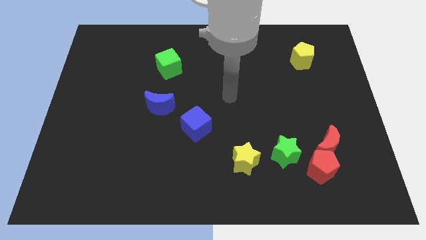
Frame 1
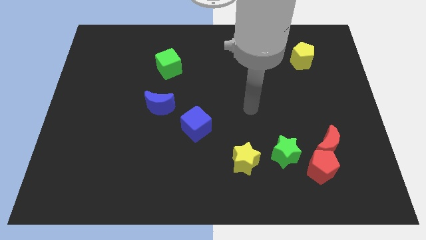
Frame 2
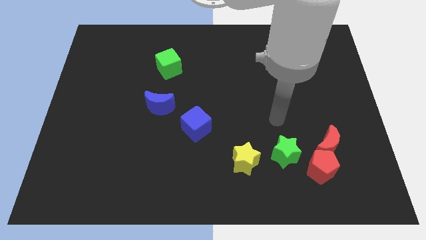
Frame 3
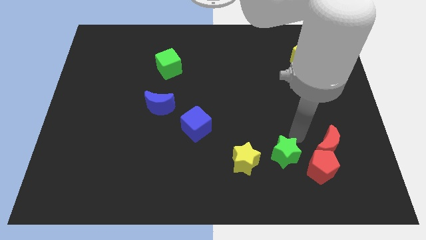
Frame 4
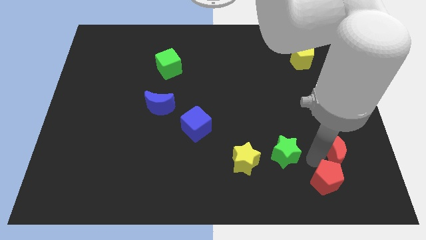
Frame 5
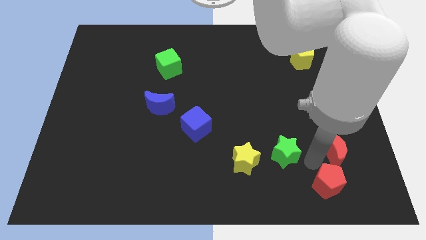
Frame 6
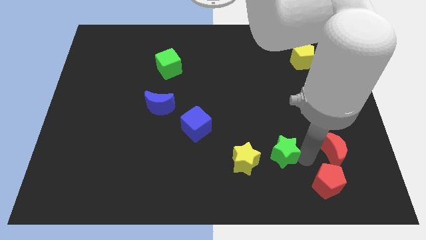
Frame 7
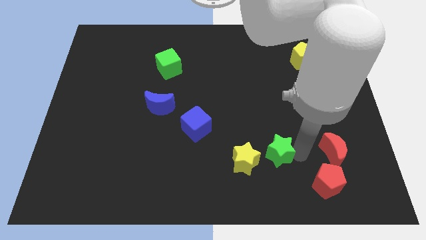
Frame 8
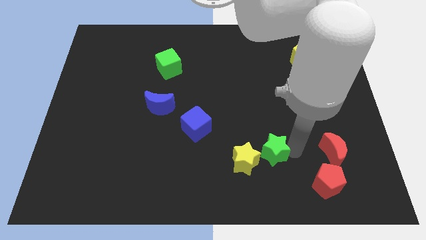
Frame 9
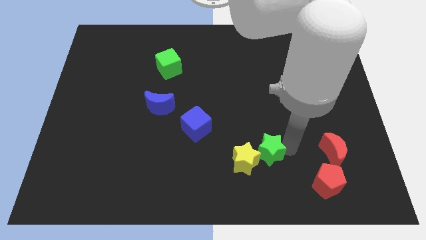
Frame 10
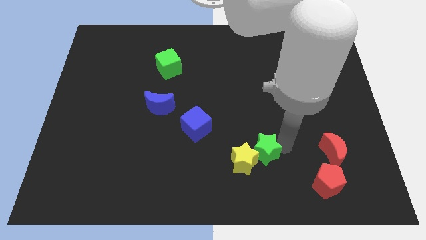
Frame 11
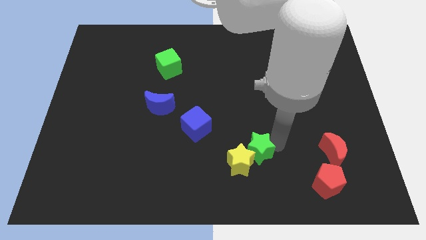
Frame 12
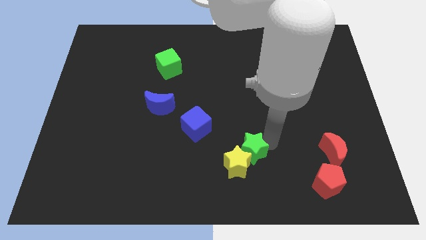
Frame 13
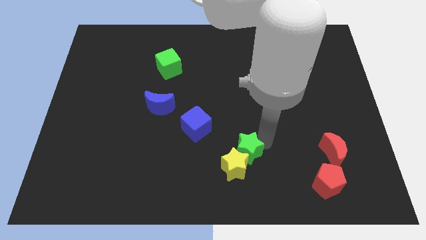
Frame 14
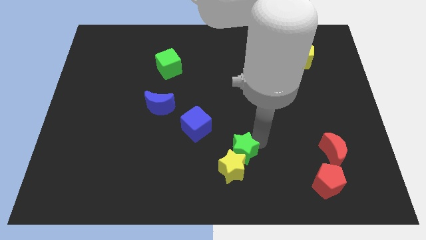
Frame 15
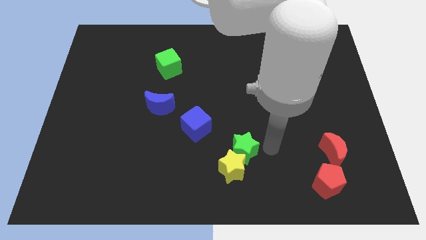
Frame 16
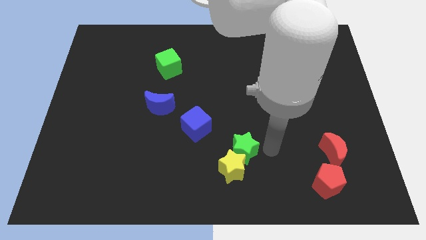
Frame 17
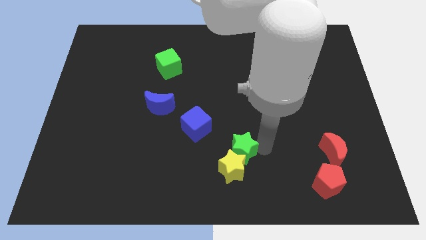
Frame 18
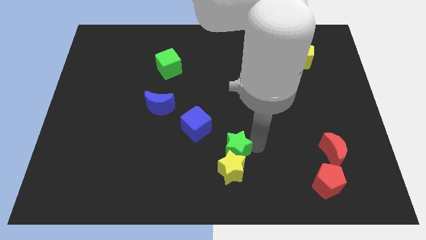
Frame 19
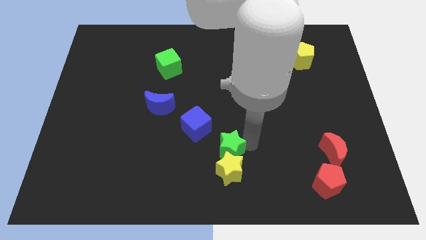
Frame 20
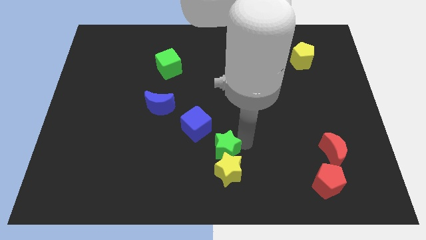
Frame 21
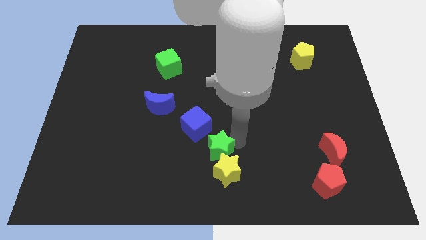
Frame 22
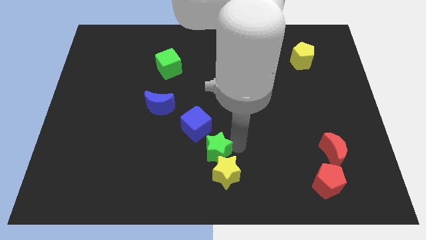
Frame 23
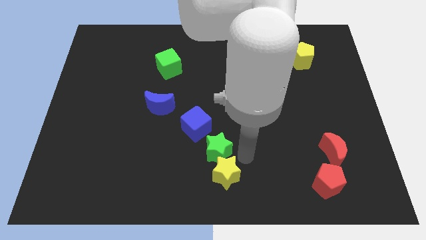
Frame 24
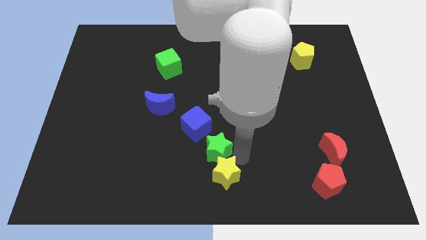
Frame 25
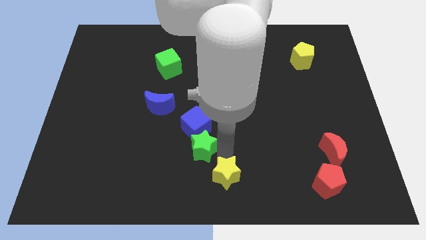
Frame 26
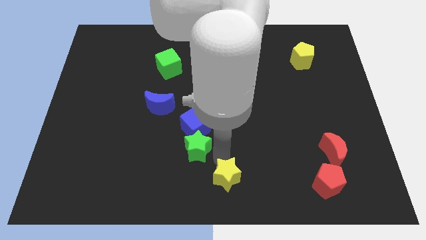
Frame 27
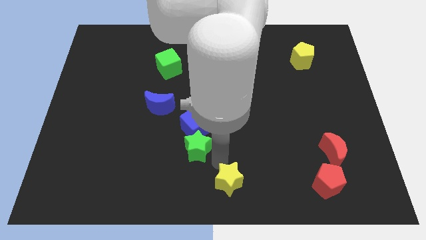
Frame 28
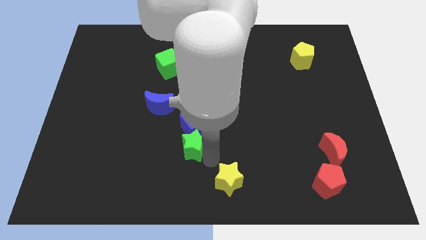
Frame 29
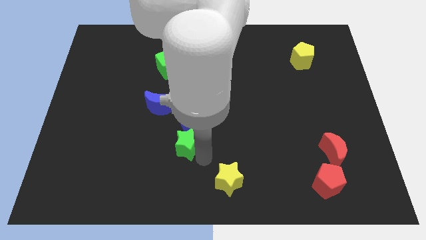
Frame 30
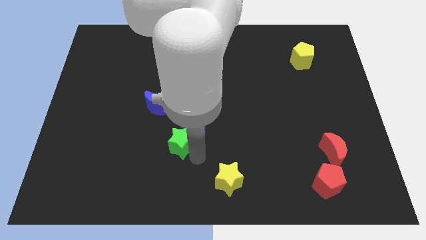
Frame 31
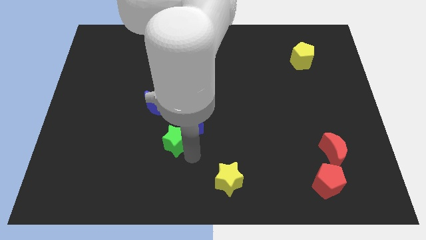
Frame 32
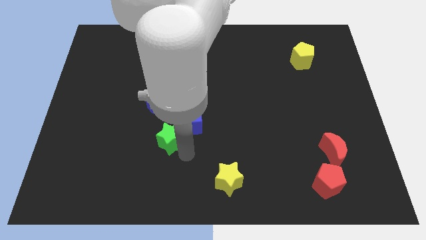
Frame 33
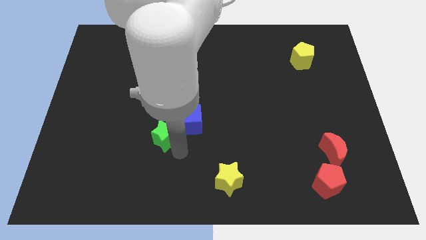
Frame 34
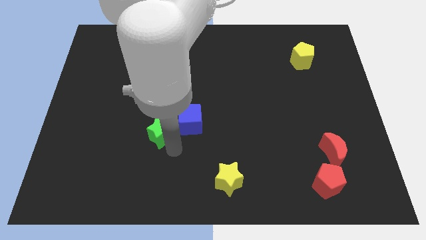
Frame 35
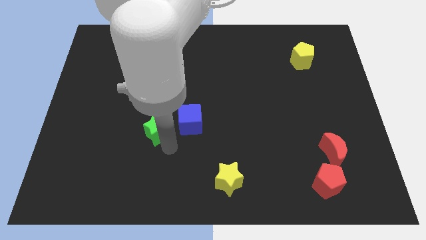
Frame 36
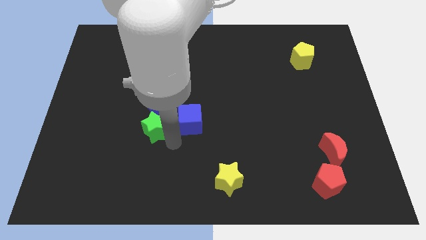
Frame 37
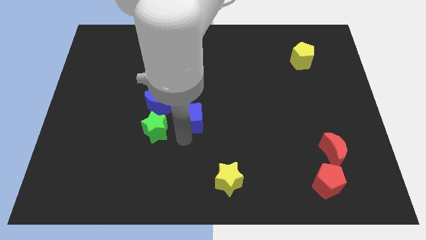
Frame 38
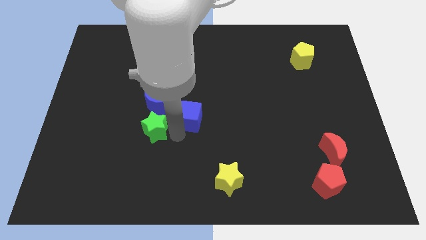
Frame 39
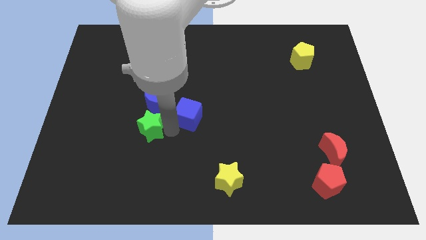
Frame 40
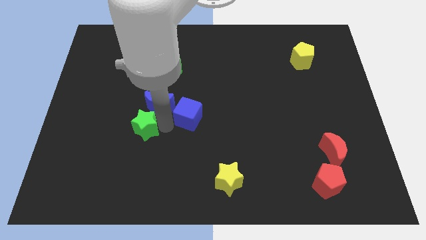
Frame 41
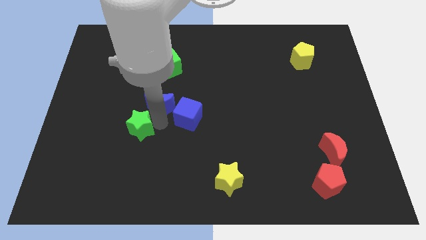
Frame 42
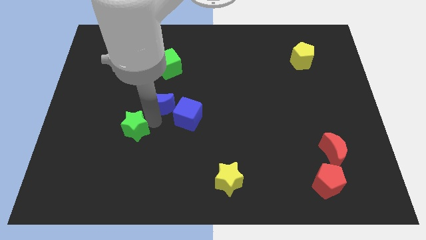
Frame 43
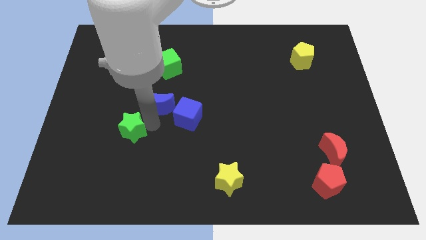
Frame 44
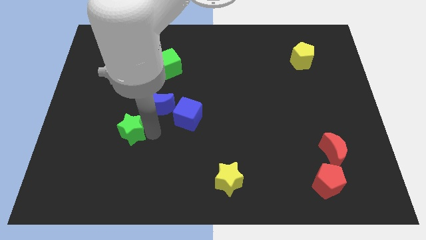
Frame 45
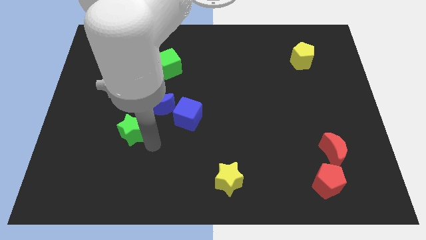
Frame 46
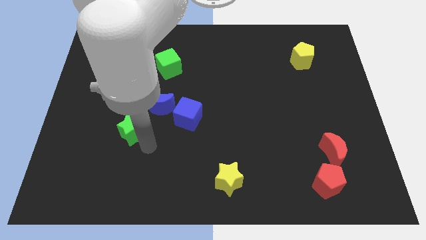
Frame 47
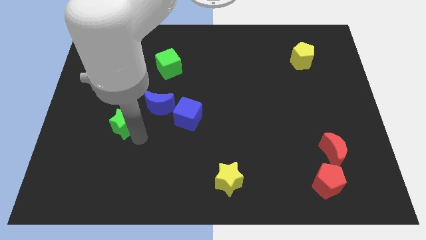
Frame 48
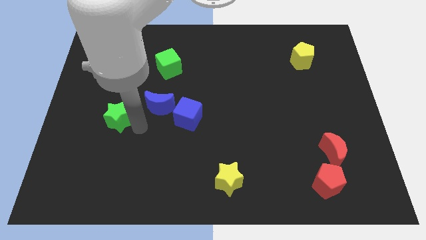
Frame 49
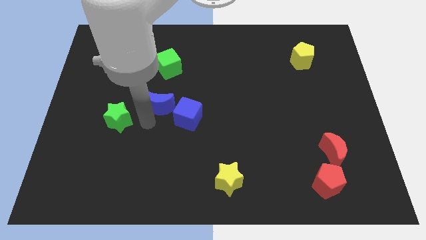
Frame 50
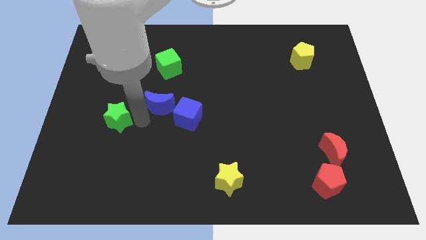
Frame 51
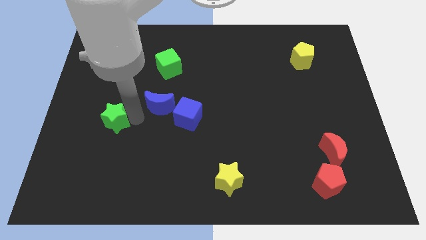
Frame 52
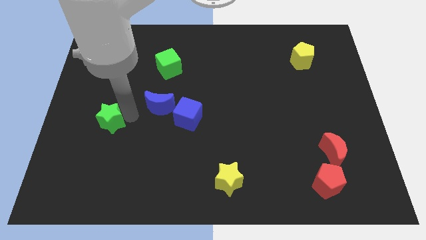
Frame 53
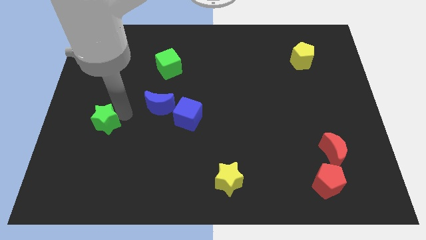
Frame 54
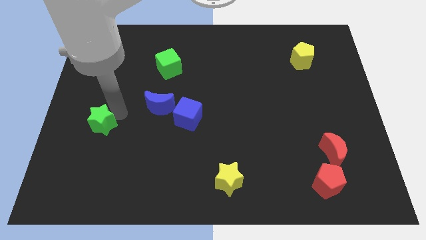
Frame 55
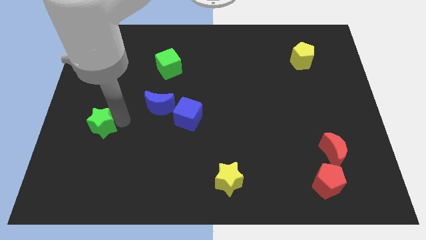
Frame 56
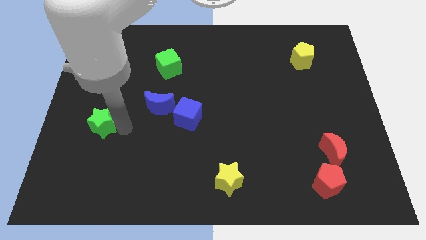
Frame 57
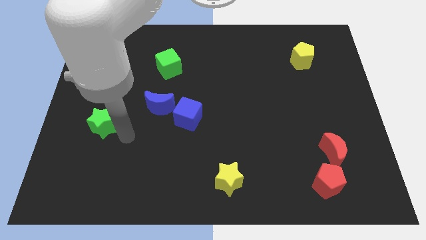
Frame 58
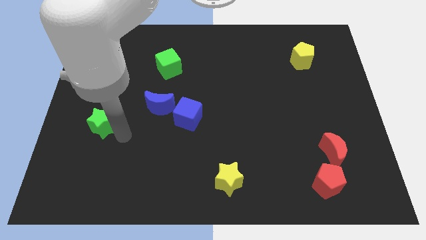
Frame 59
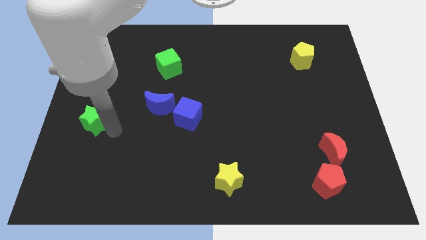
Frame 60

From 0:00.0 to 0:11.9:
slide the green star to the center left
